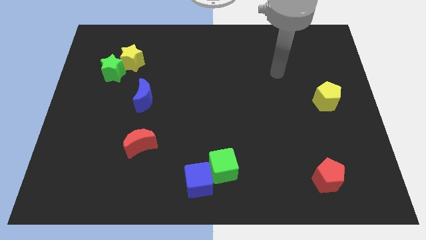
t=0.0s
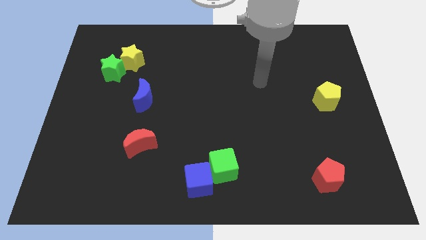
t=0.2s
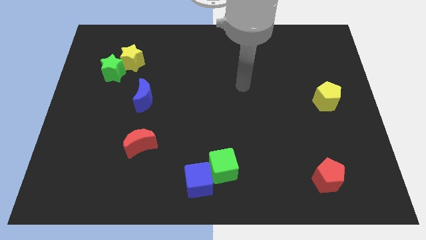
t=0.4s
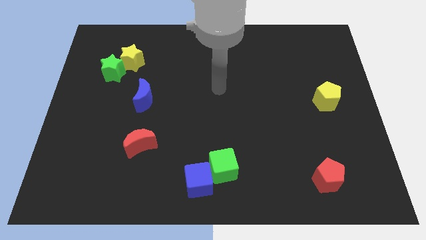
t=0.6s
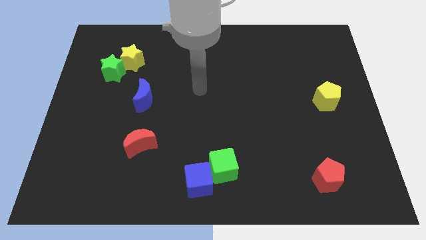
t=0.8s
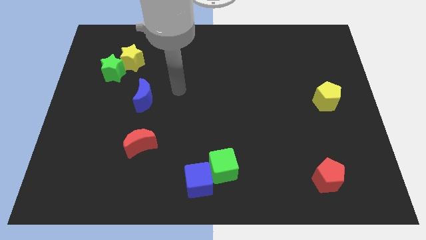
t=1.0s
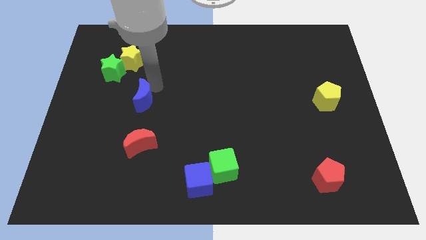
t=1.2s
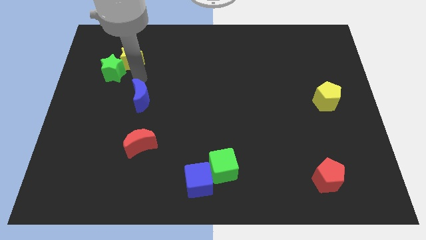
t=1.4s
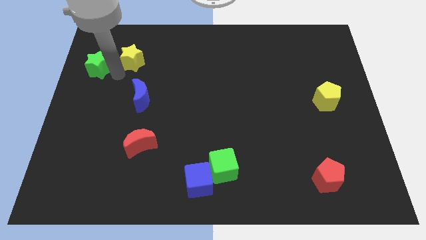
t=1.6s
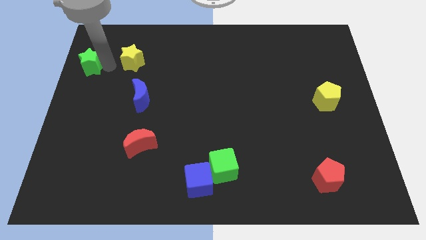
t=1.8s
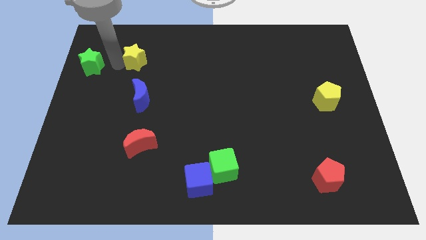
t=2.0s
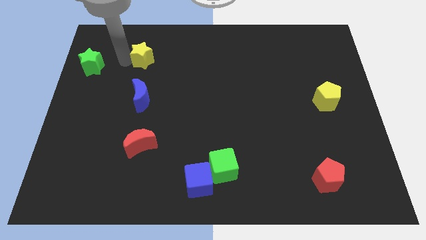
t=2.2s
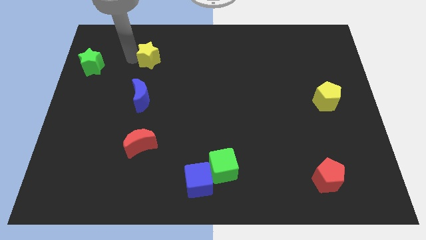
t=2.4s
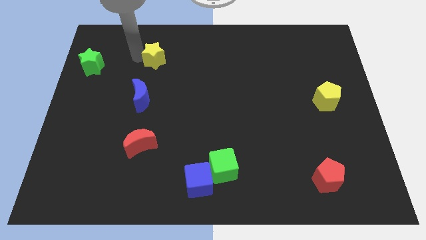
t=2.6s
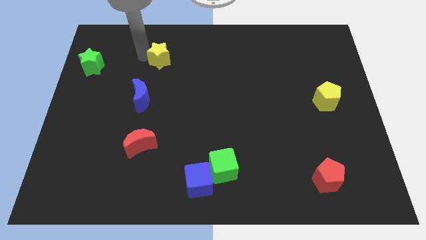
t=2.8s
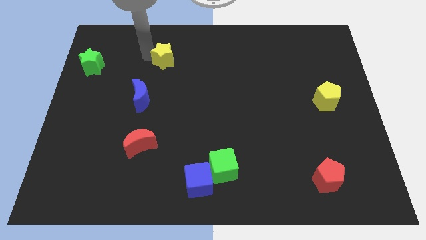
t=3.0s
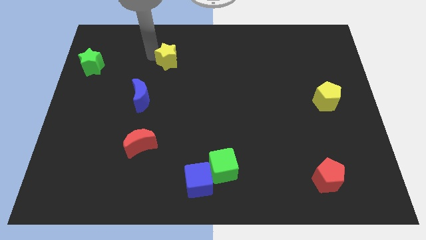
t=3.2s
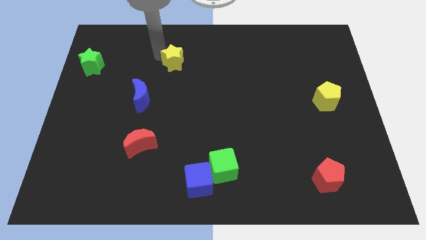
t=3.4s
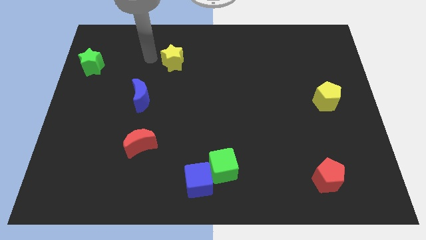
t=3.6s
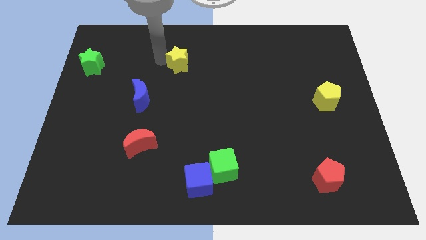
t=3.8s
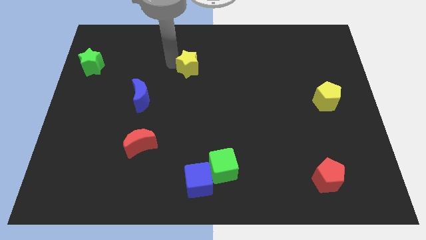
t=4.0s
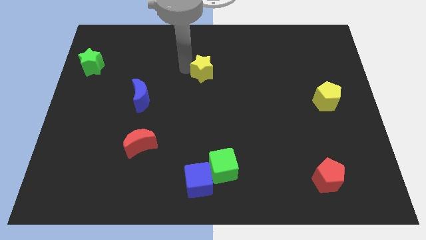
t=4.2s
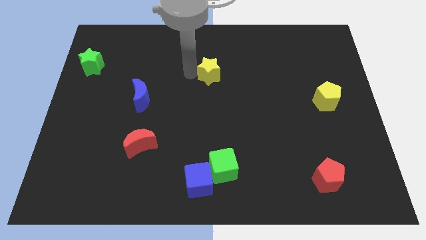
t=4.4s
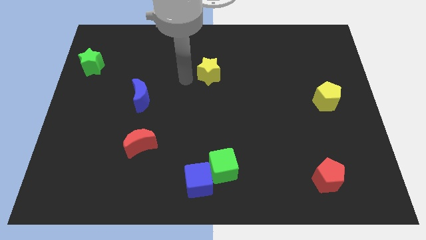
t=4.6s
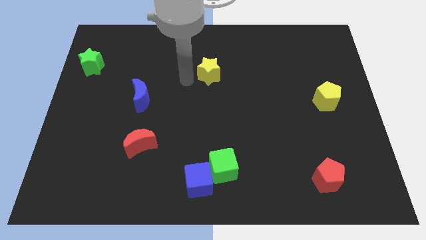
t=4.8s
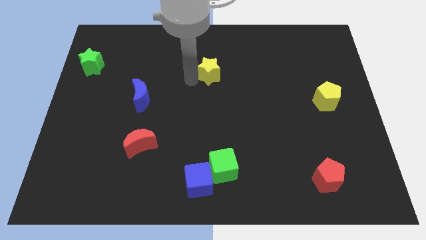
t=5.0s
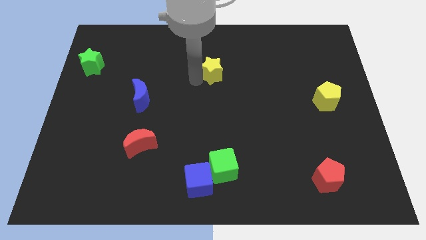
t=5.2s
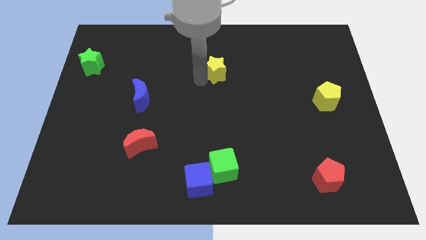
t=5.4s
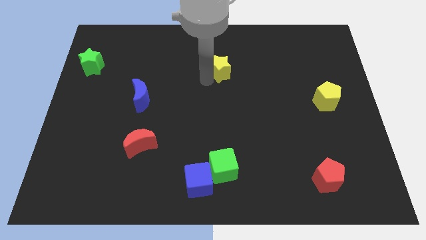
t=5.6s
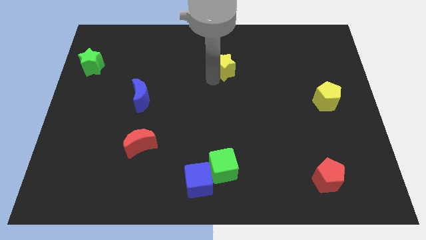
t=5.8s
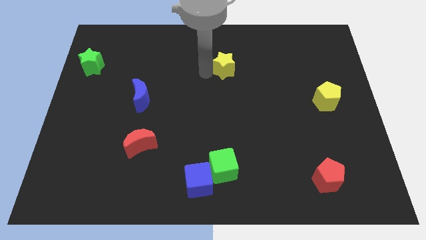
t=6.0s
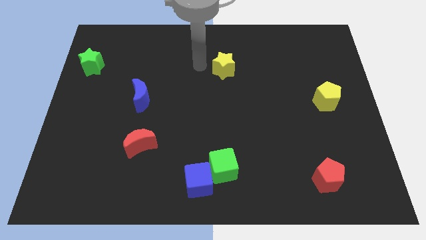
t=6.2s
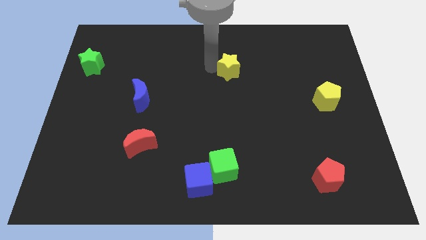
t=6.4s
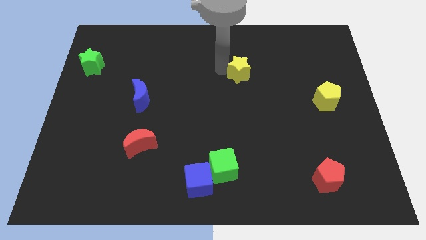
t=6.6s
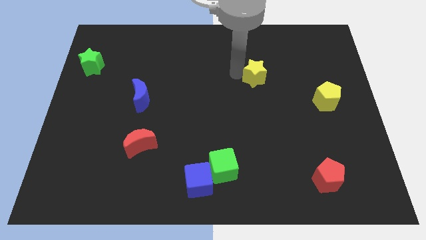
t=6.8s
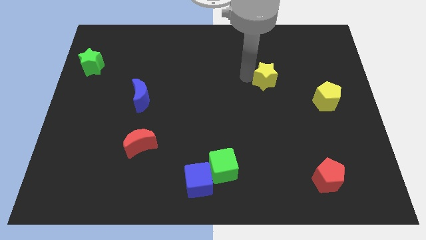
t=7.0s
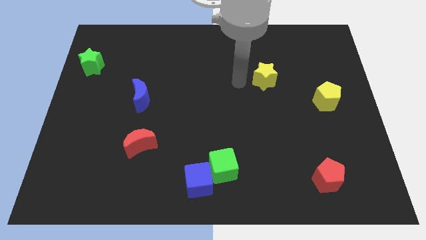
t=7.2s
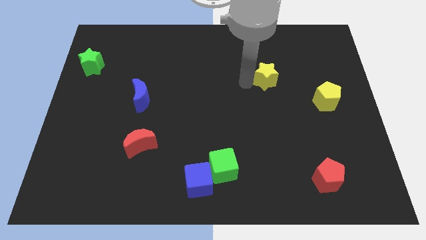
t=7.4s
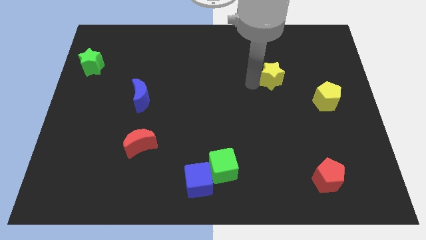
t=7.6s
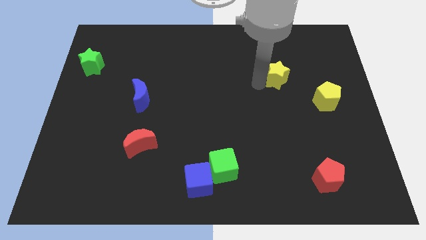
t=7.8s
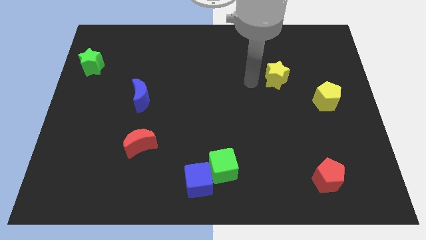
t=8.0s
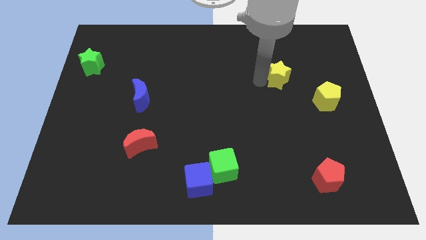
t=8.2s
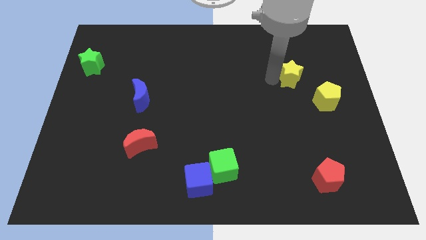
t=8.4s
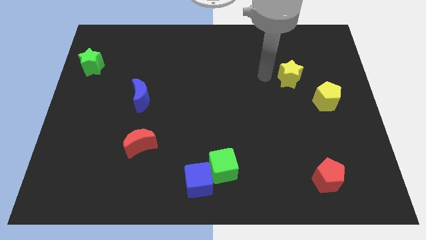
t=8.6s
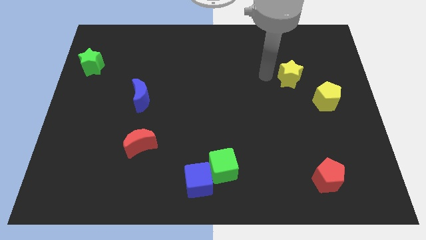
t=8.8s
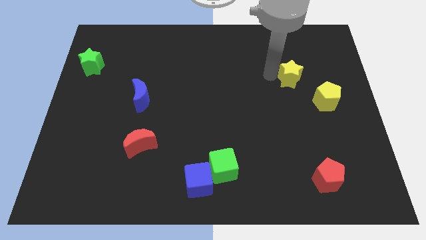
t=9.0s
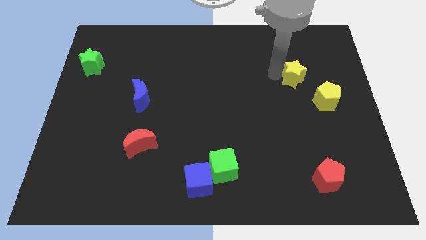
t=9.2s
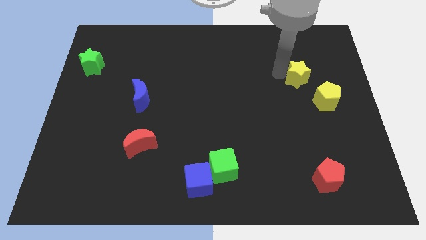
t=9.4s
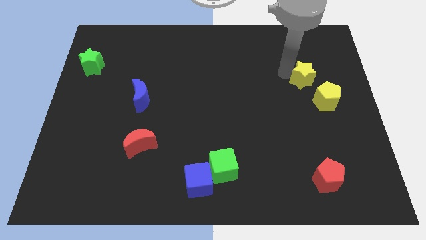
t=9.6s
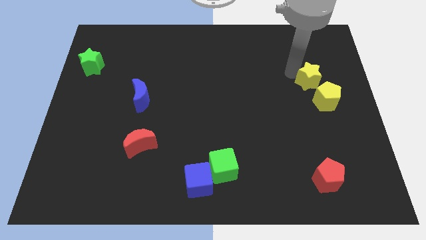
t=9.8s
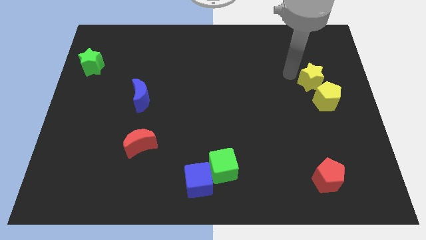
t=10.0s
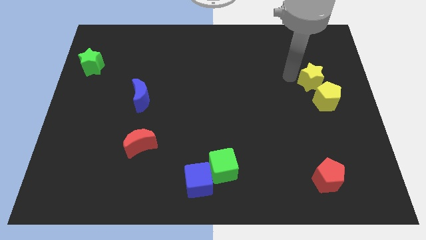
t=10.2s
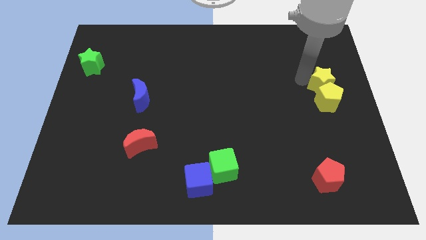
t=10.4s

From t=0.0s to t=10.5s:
move the yellow star to the center right
